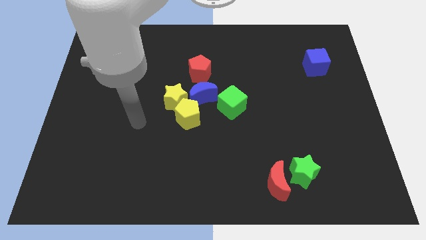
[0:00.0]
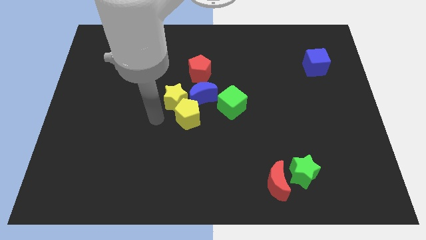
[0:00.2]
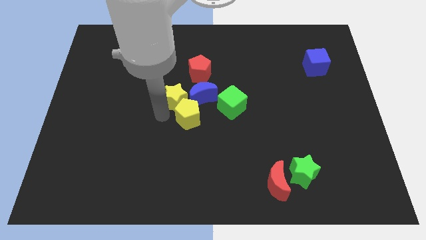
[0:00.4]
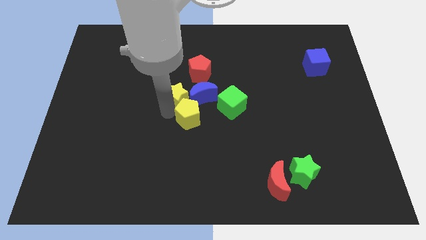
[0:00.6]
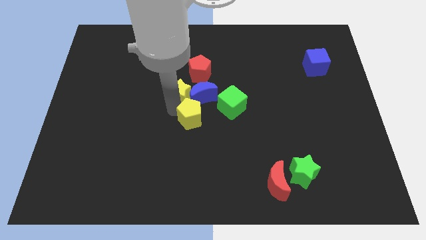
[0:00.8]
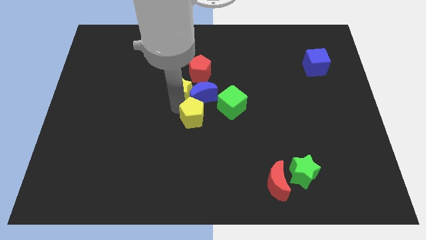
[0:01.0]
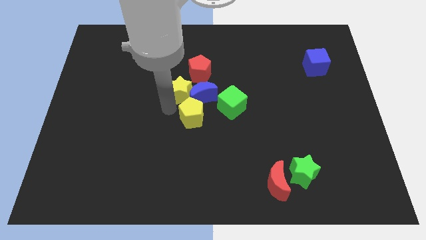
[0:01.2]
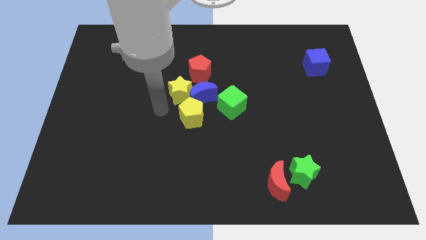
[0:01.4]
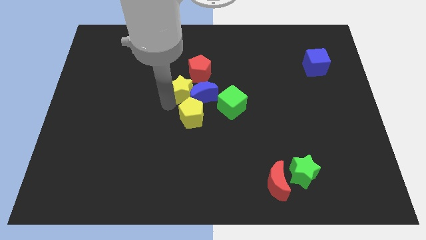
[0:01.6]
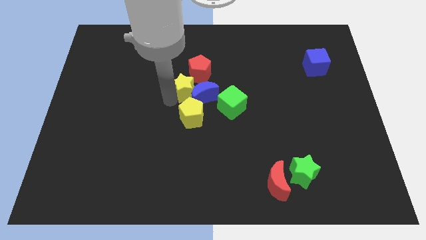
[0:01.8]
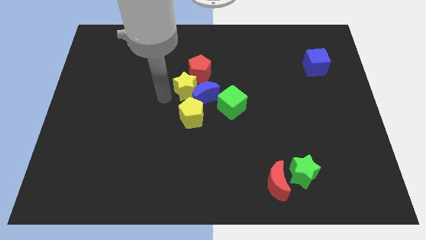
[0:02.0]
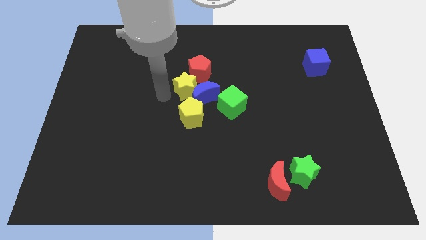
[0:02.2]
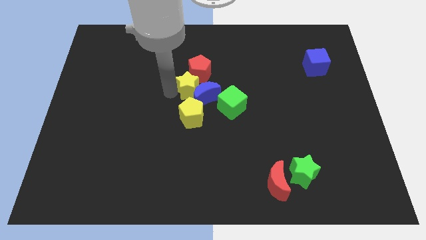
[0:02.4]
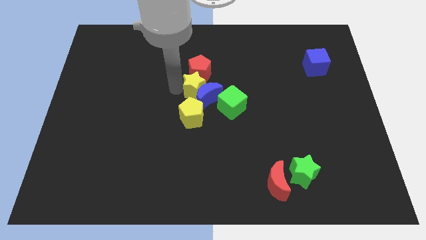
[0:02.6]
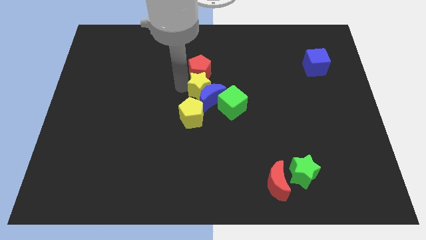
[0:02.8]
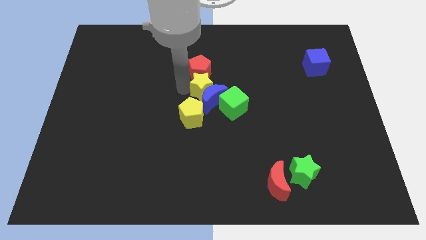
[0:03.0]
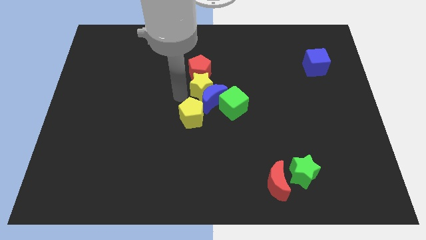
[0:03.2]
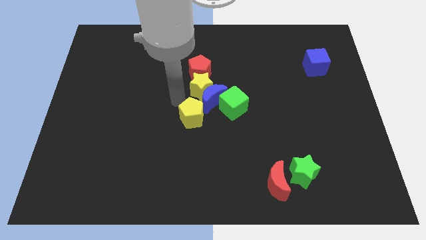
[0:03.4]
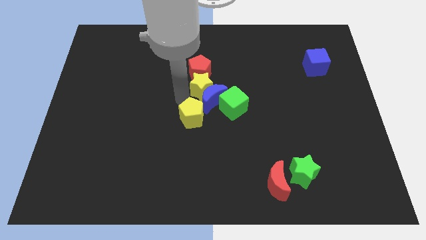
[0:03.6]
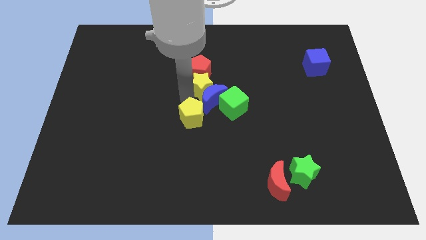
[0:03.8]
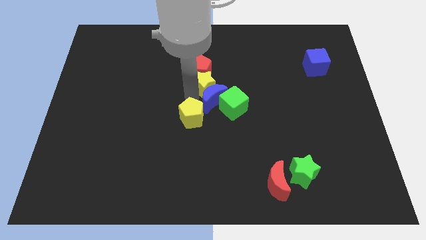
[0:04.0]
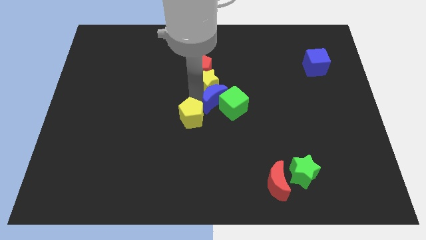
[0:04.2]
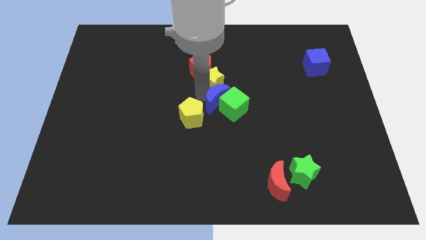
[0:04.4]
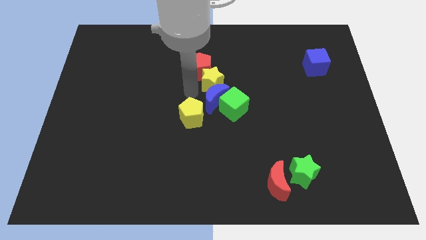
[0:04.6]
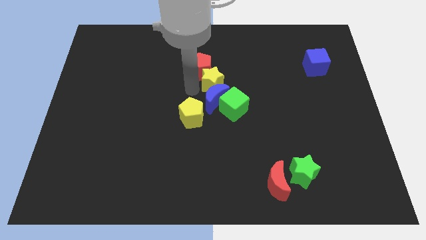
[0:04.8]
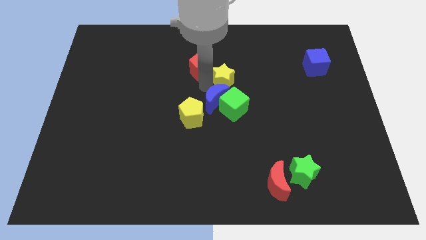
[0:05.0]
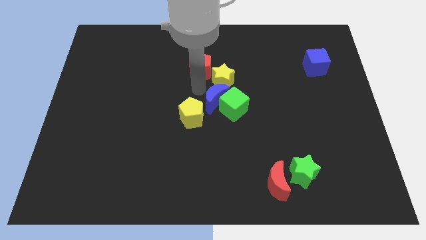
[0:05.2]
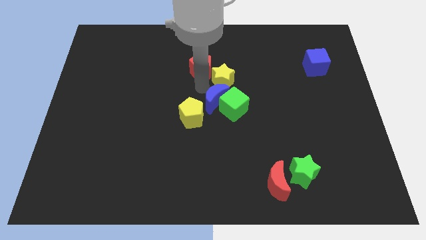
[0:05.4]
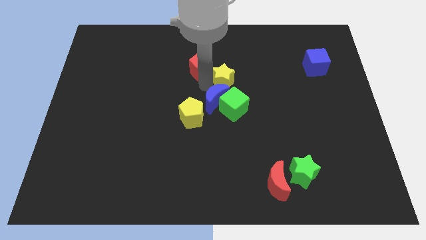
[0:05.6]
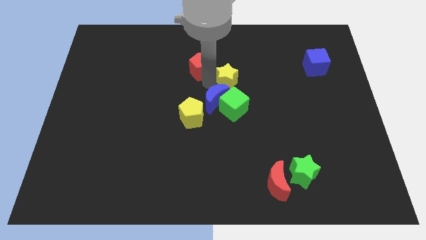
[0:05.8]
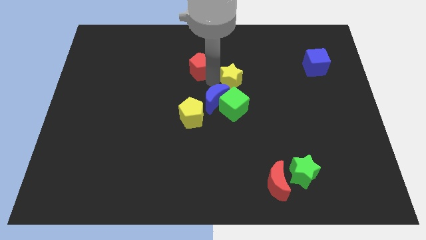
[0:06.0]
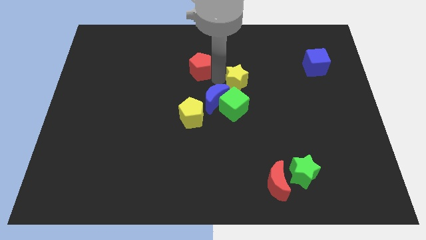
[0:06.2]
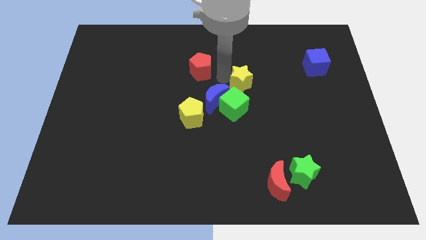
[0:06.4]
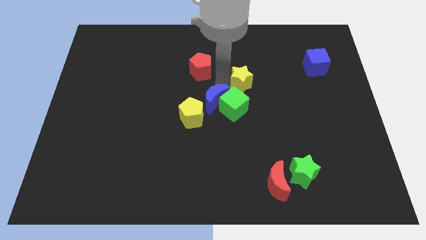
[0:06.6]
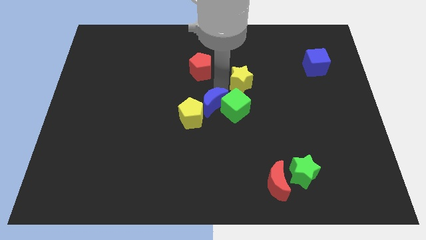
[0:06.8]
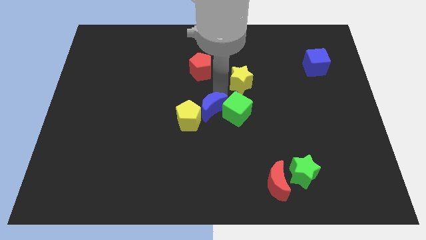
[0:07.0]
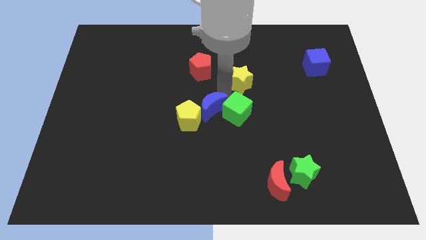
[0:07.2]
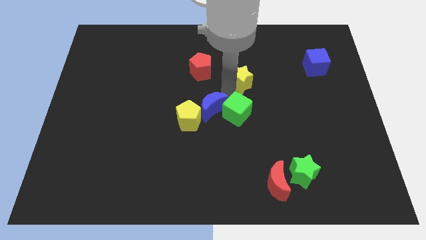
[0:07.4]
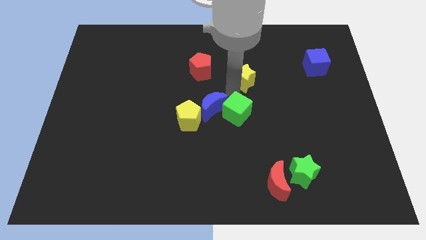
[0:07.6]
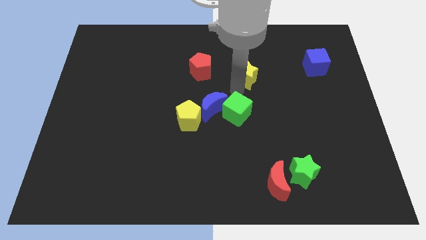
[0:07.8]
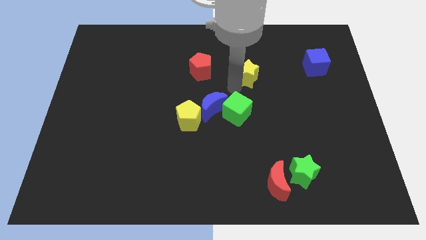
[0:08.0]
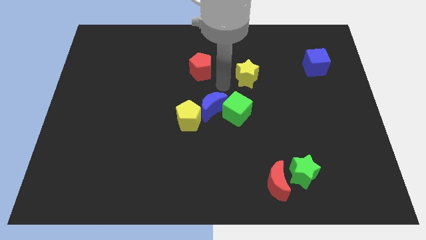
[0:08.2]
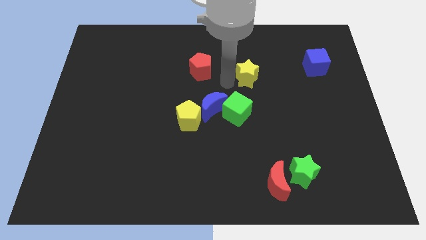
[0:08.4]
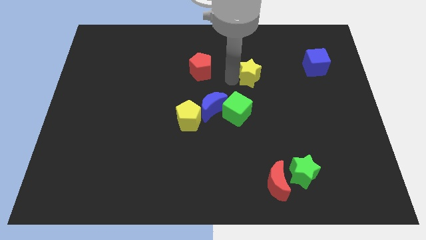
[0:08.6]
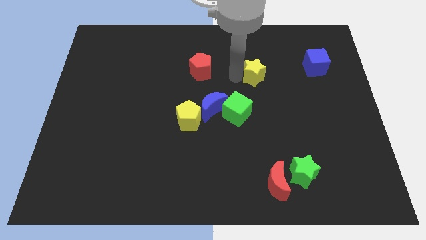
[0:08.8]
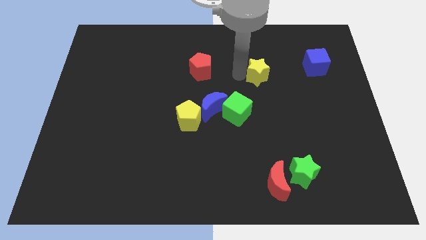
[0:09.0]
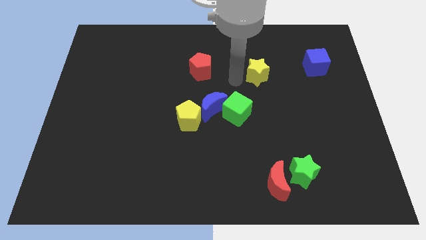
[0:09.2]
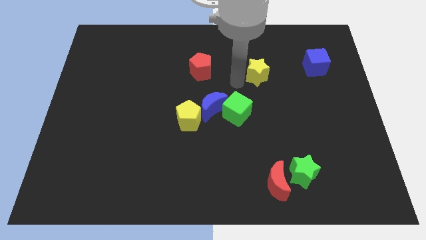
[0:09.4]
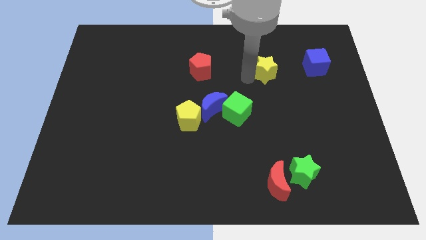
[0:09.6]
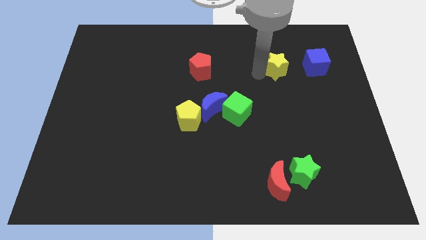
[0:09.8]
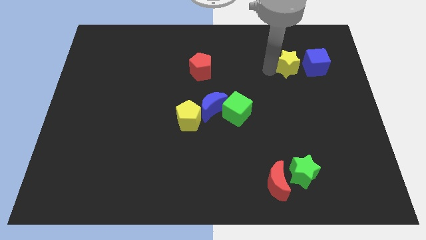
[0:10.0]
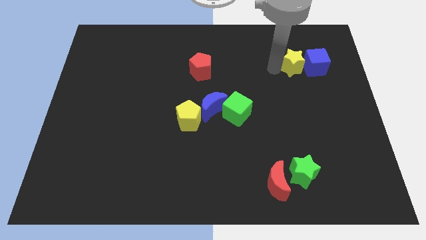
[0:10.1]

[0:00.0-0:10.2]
slide the yellow star to the blue cube

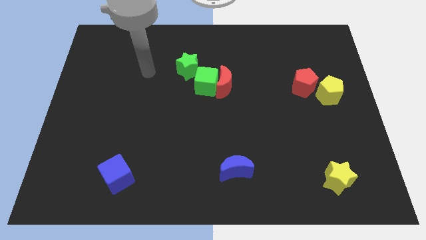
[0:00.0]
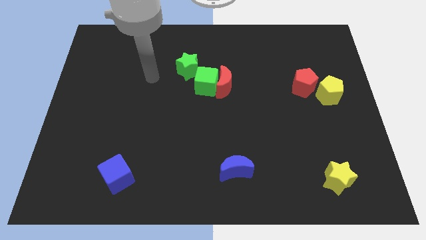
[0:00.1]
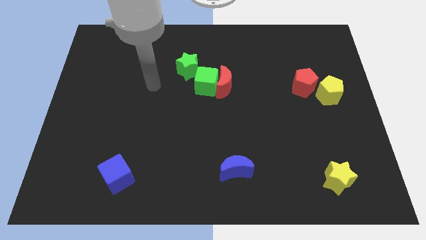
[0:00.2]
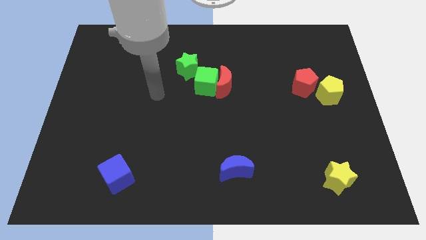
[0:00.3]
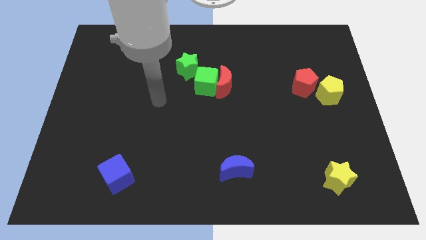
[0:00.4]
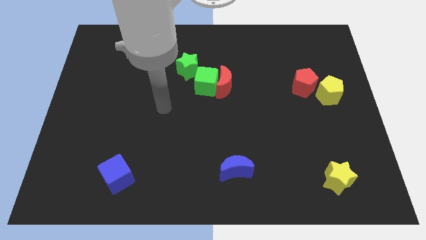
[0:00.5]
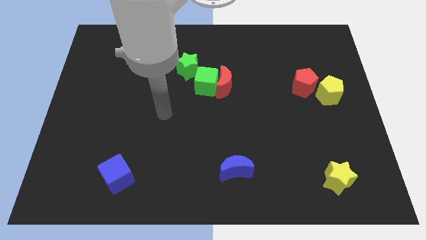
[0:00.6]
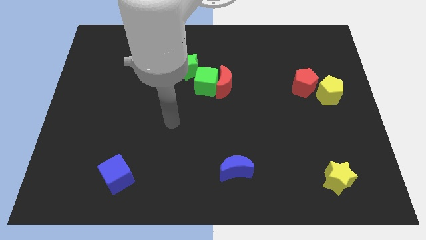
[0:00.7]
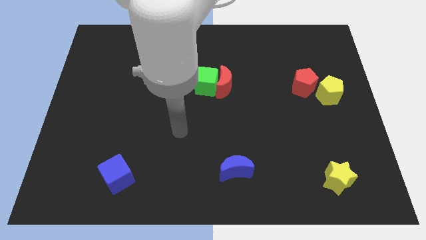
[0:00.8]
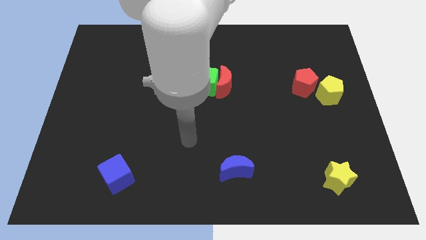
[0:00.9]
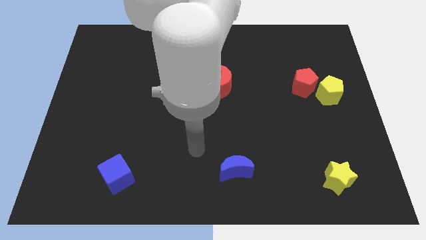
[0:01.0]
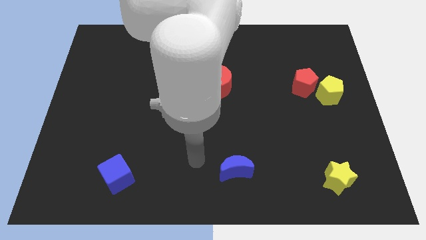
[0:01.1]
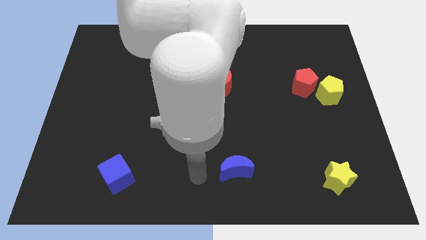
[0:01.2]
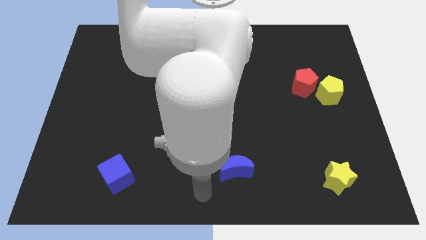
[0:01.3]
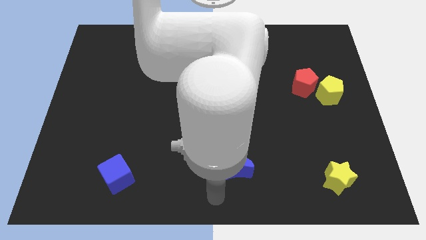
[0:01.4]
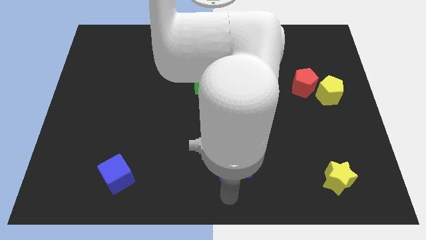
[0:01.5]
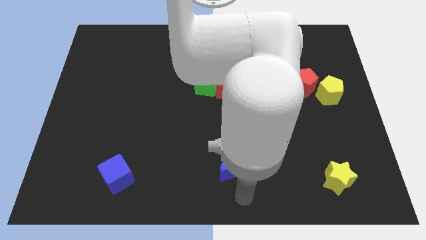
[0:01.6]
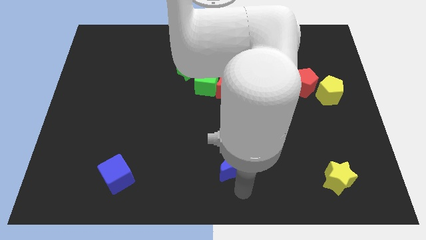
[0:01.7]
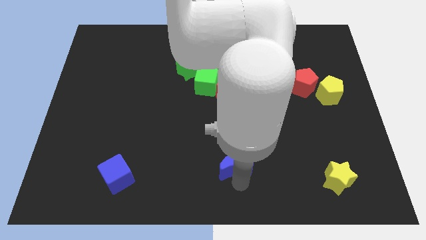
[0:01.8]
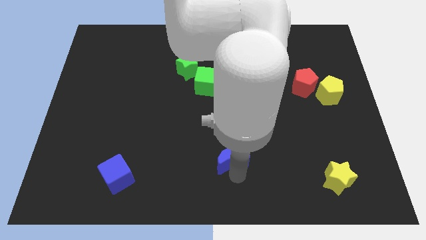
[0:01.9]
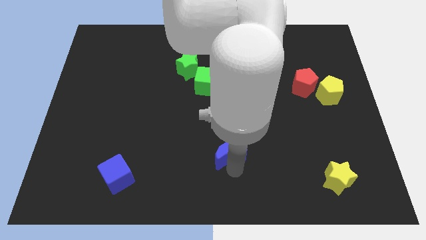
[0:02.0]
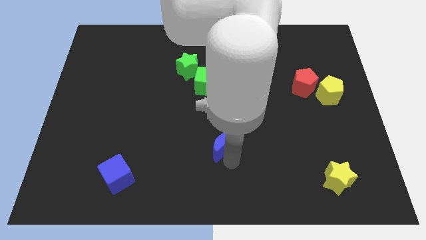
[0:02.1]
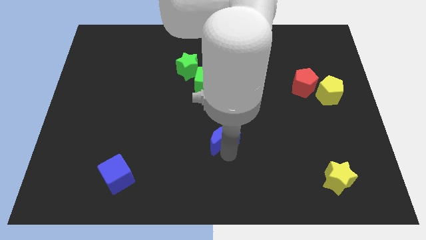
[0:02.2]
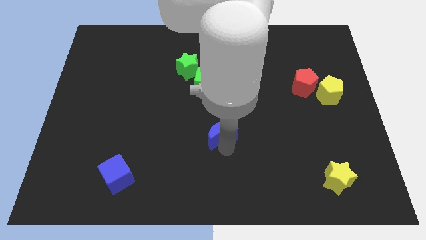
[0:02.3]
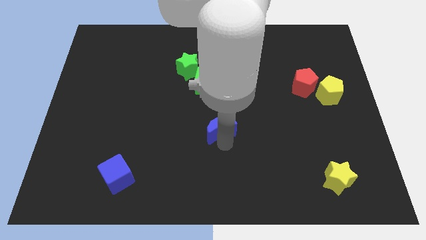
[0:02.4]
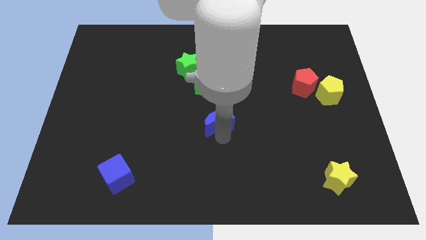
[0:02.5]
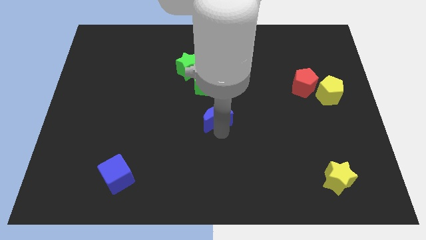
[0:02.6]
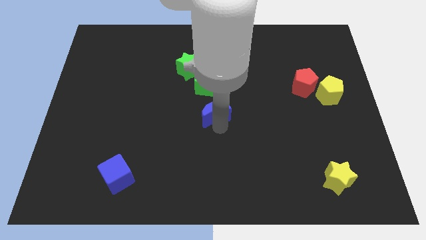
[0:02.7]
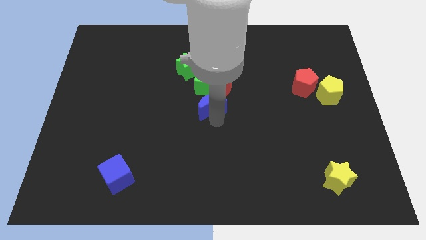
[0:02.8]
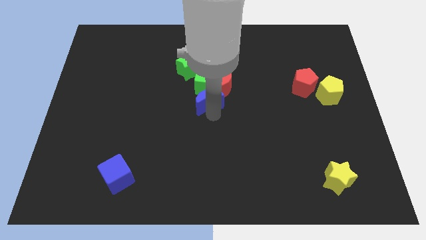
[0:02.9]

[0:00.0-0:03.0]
move the blue moon next to the green cube
